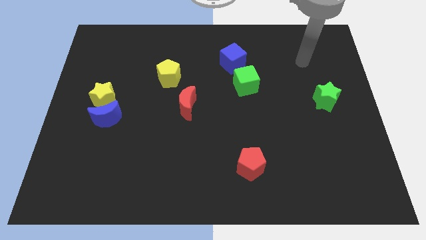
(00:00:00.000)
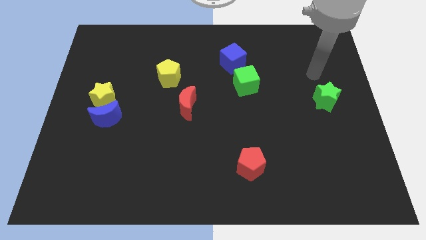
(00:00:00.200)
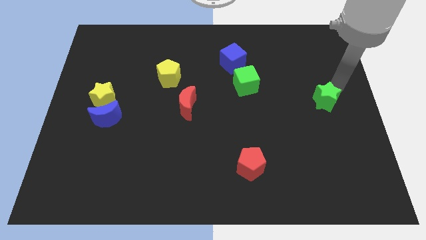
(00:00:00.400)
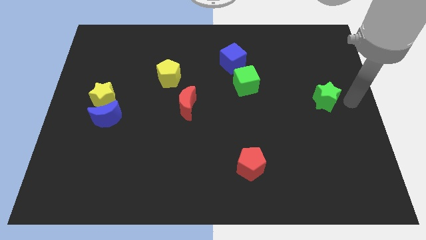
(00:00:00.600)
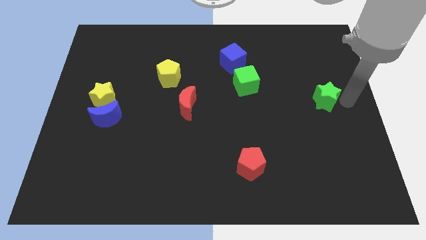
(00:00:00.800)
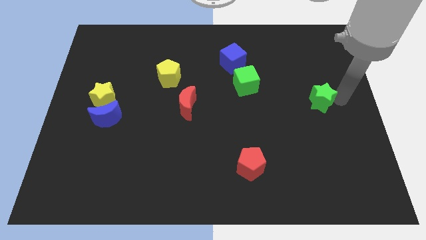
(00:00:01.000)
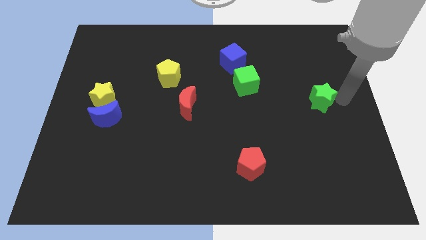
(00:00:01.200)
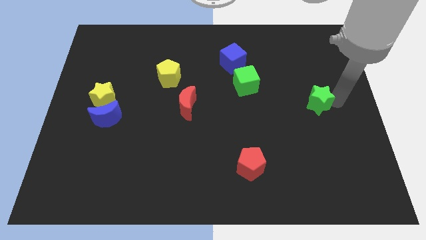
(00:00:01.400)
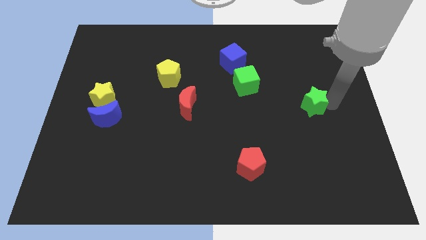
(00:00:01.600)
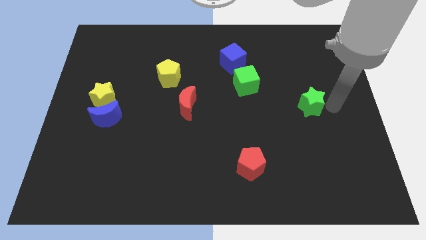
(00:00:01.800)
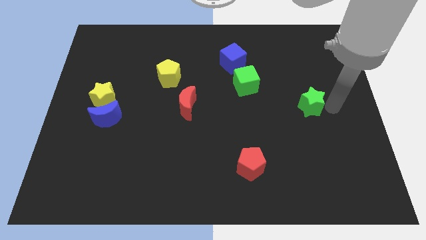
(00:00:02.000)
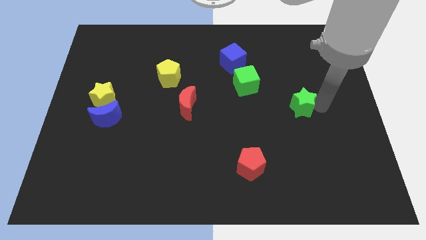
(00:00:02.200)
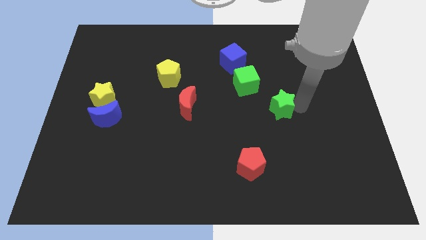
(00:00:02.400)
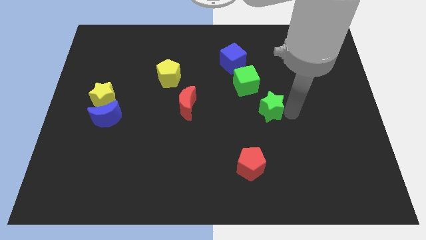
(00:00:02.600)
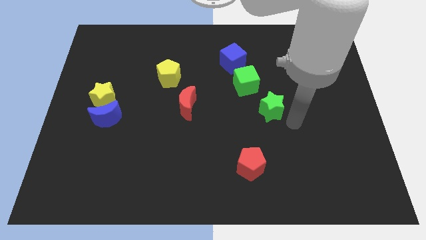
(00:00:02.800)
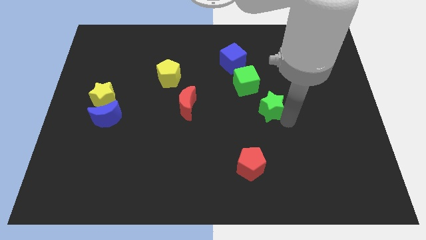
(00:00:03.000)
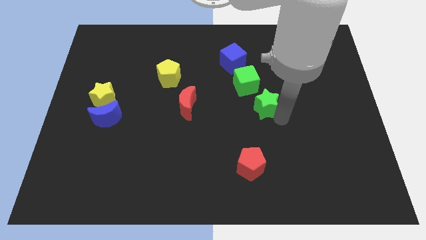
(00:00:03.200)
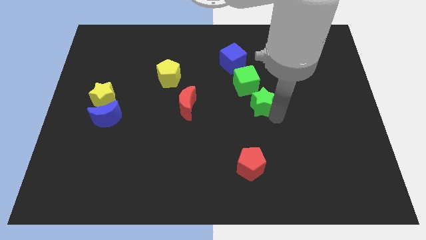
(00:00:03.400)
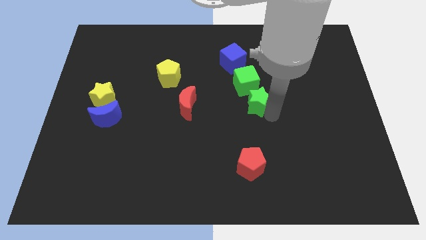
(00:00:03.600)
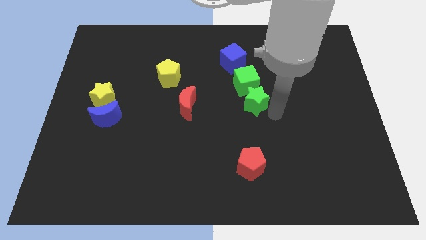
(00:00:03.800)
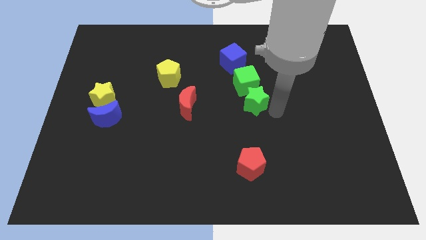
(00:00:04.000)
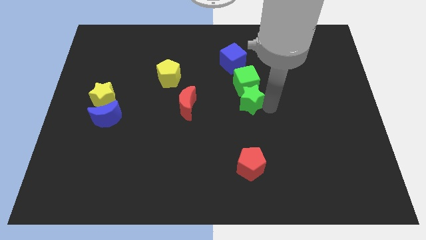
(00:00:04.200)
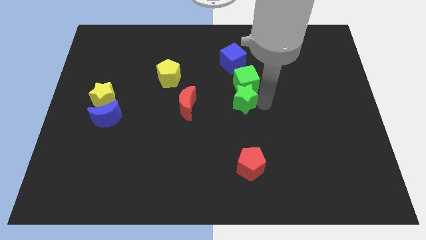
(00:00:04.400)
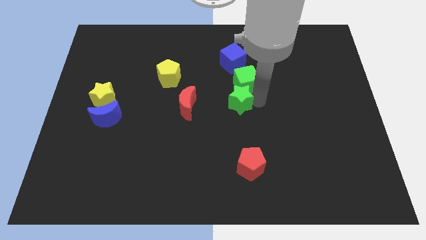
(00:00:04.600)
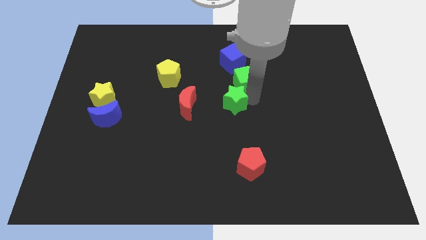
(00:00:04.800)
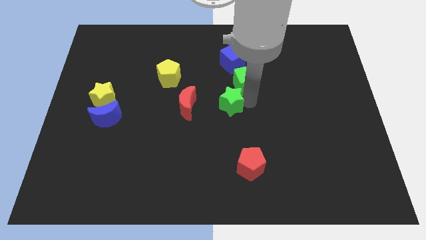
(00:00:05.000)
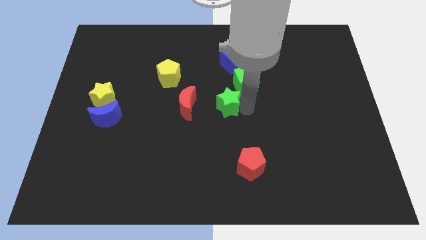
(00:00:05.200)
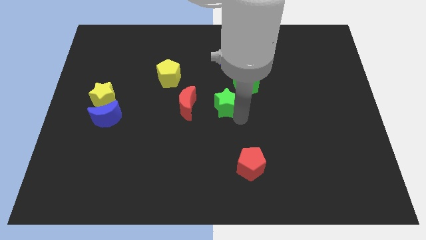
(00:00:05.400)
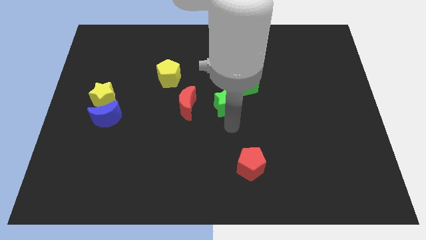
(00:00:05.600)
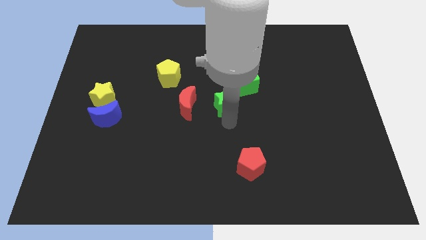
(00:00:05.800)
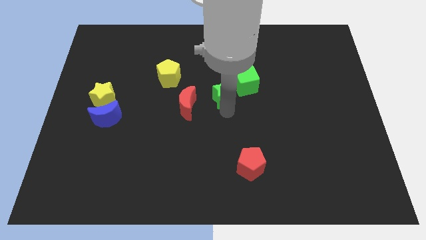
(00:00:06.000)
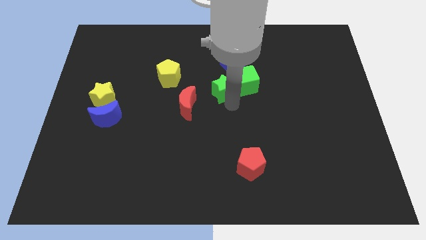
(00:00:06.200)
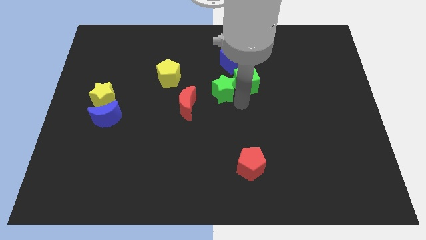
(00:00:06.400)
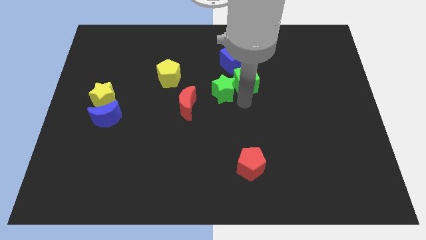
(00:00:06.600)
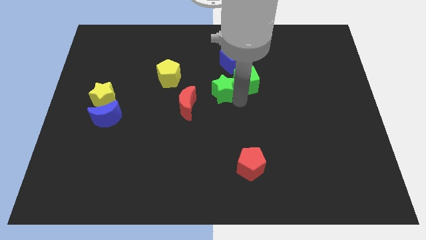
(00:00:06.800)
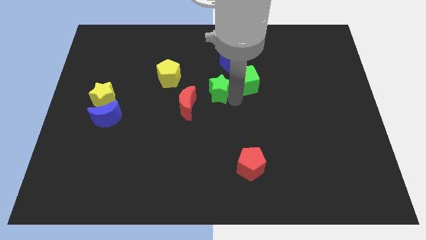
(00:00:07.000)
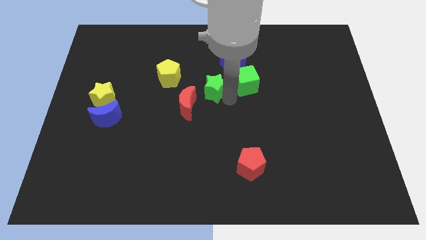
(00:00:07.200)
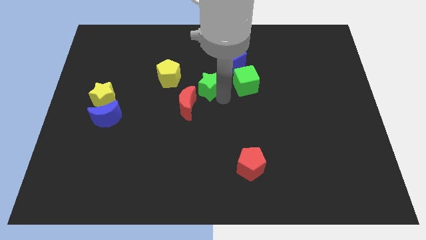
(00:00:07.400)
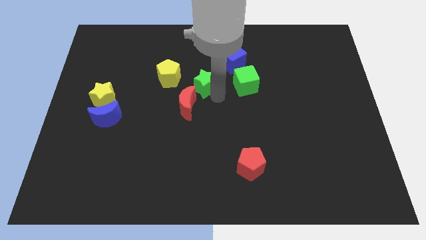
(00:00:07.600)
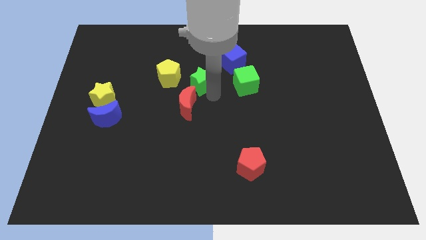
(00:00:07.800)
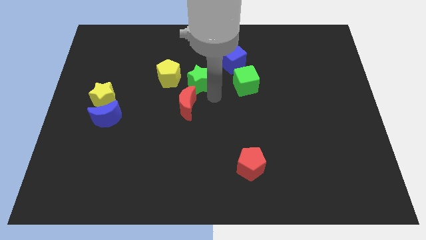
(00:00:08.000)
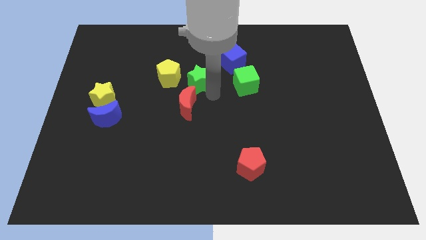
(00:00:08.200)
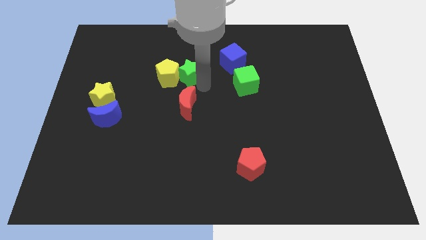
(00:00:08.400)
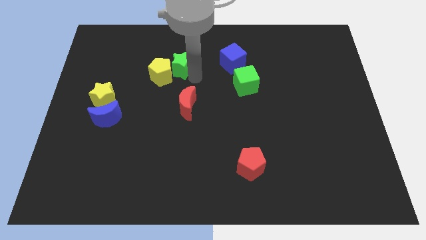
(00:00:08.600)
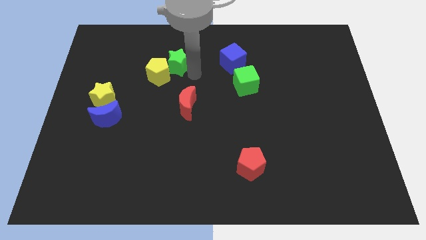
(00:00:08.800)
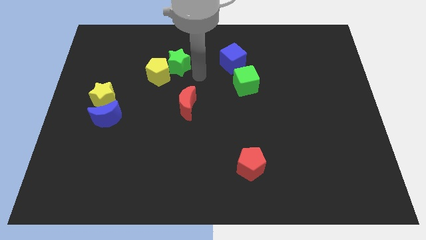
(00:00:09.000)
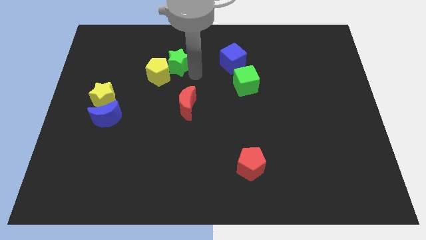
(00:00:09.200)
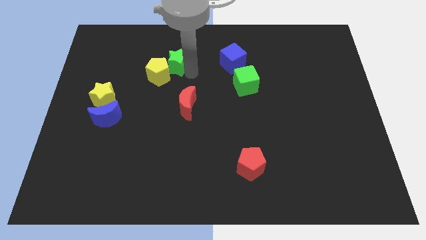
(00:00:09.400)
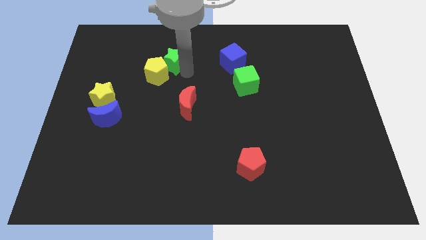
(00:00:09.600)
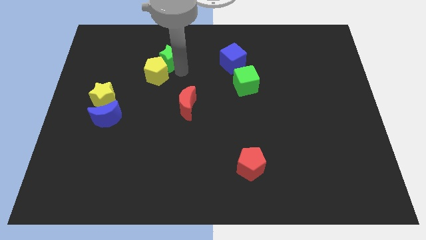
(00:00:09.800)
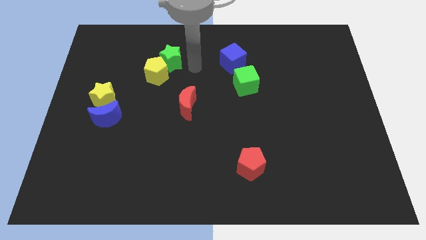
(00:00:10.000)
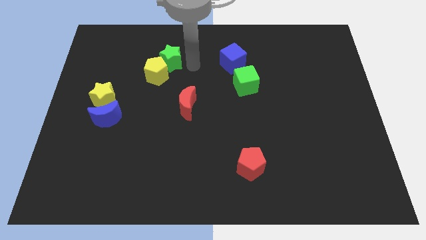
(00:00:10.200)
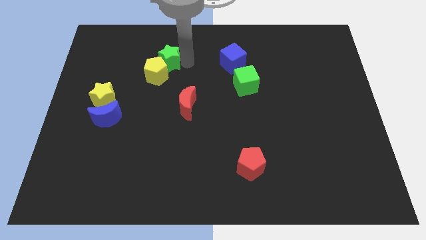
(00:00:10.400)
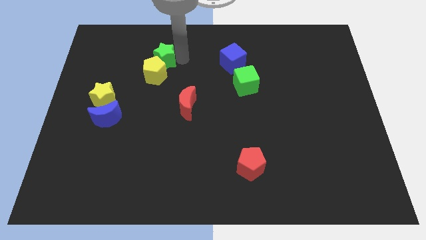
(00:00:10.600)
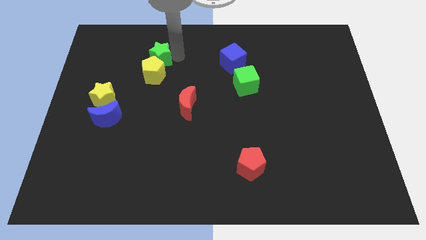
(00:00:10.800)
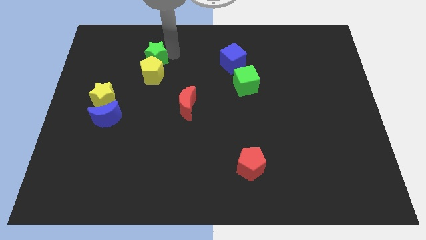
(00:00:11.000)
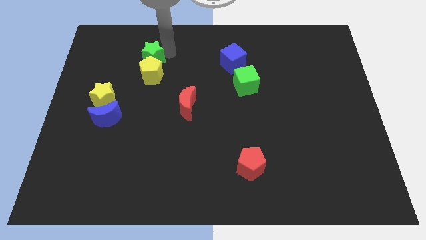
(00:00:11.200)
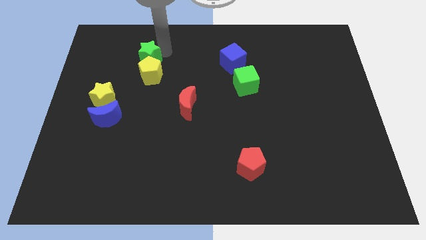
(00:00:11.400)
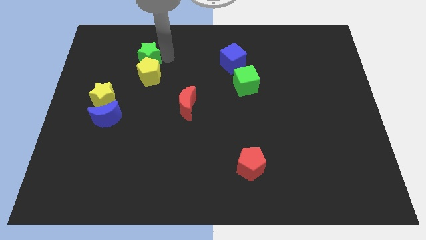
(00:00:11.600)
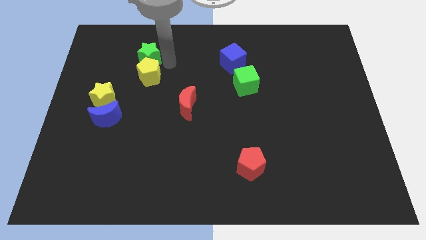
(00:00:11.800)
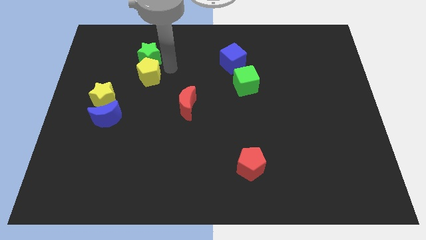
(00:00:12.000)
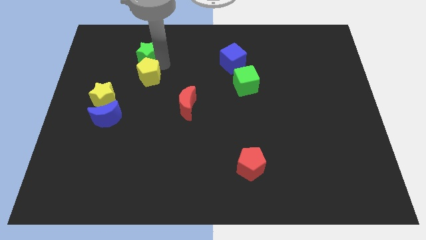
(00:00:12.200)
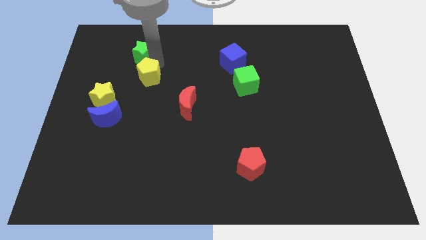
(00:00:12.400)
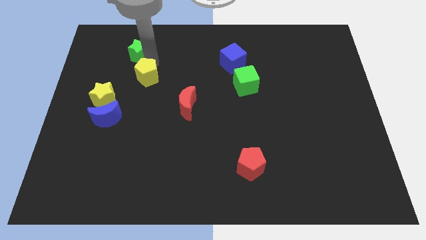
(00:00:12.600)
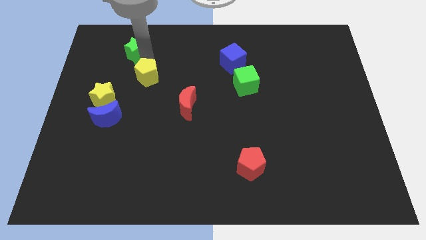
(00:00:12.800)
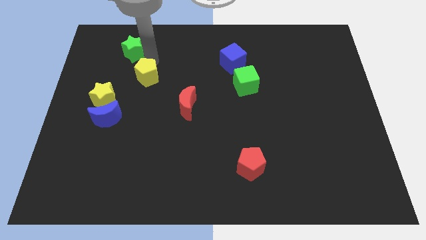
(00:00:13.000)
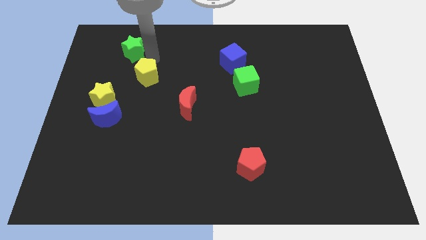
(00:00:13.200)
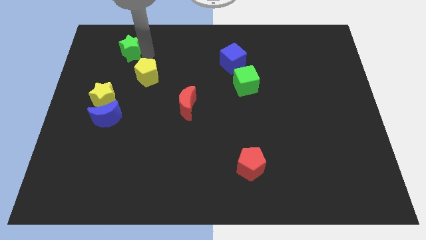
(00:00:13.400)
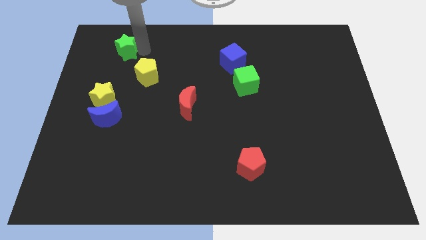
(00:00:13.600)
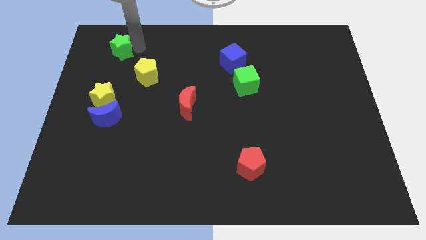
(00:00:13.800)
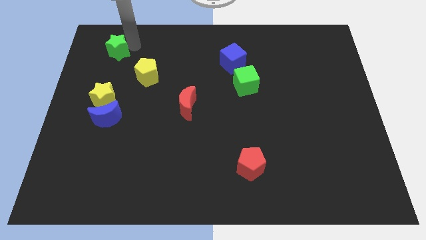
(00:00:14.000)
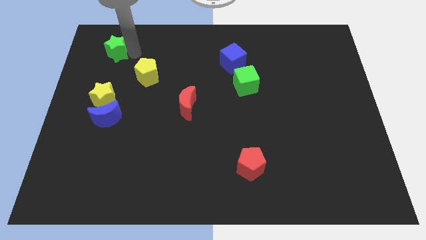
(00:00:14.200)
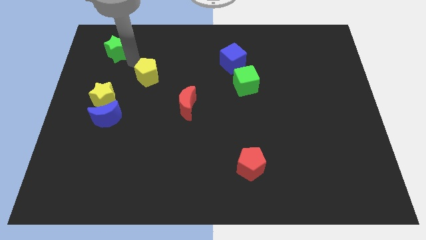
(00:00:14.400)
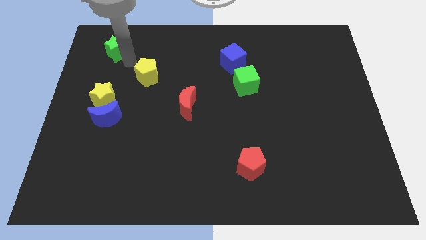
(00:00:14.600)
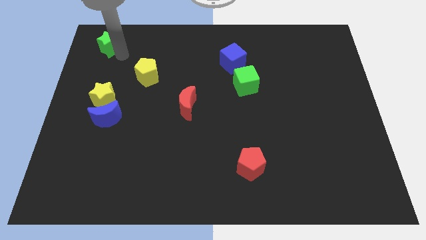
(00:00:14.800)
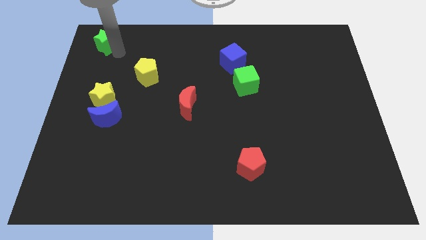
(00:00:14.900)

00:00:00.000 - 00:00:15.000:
move the green star to the top left of the board

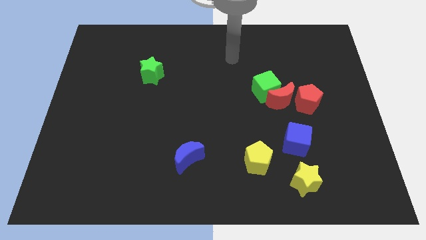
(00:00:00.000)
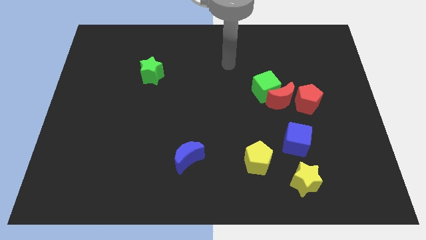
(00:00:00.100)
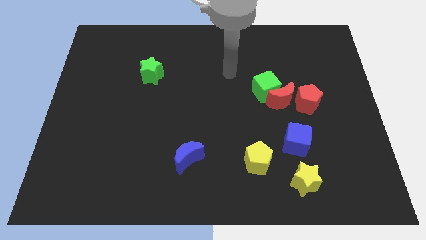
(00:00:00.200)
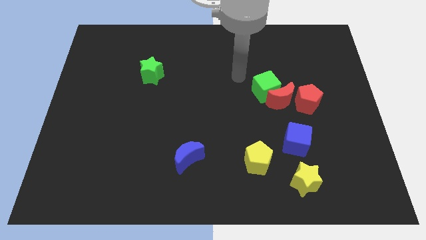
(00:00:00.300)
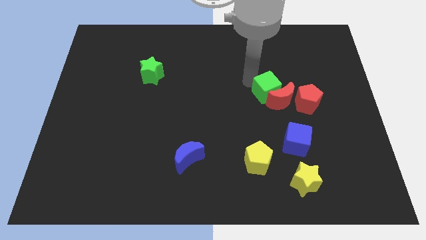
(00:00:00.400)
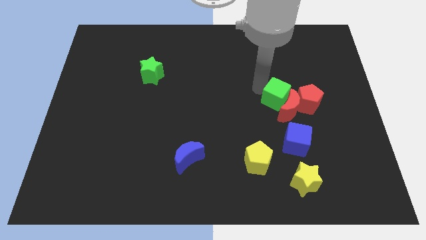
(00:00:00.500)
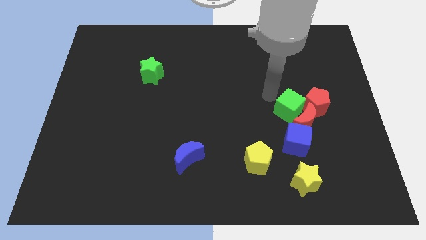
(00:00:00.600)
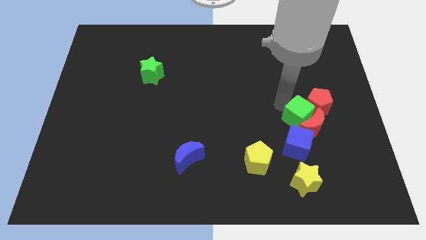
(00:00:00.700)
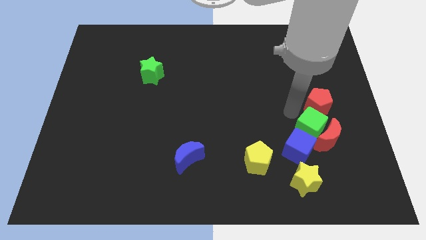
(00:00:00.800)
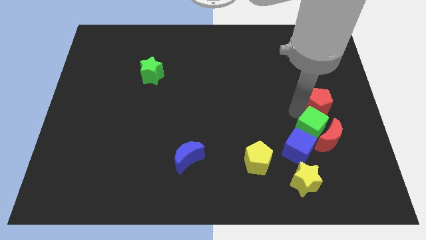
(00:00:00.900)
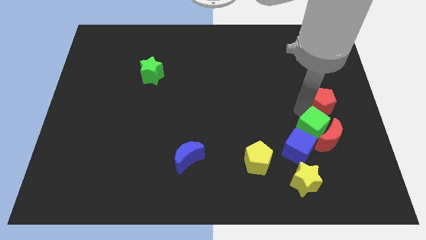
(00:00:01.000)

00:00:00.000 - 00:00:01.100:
push the red pentagon to the right side of the board
